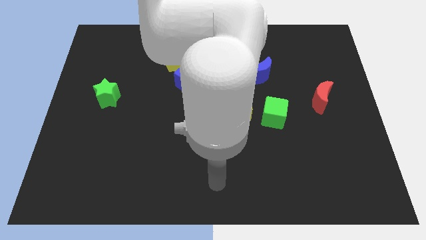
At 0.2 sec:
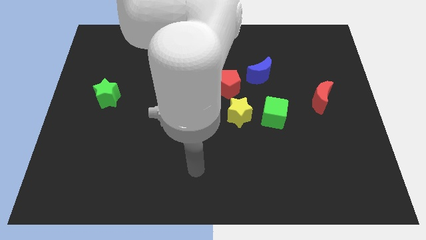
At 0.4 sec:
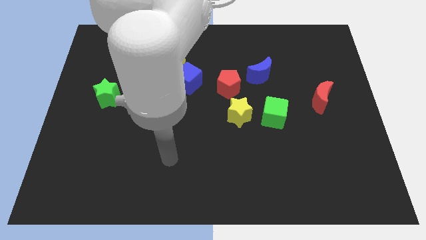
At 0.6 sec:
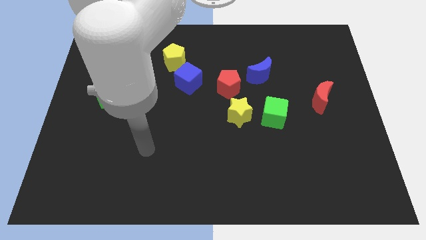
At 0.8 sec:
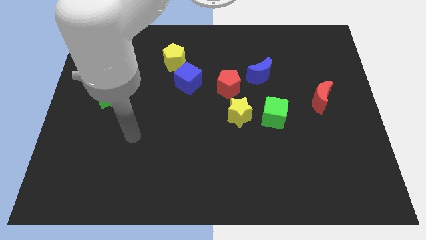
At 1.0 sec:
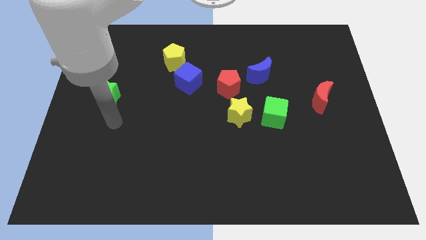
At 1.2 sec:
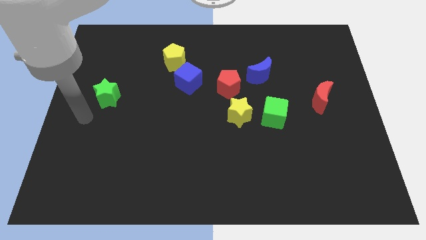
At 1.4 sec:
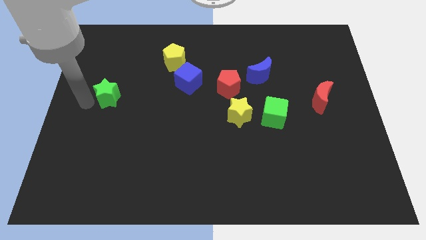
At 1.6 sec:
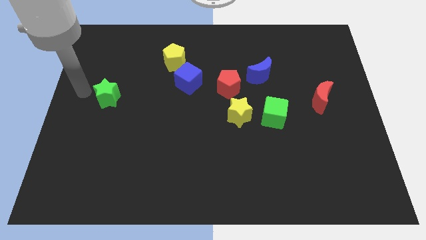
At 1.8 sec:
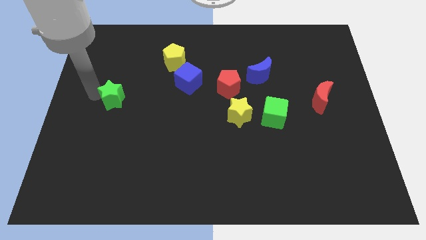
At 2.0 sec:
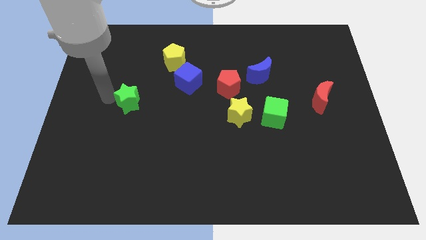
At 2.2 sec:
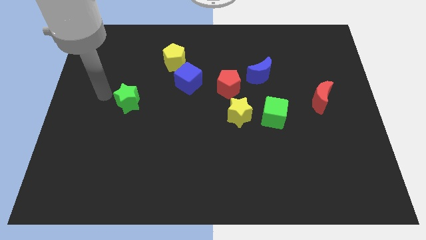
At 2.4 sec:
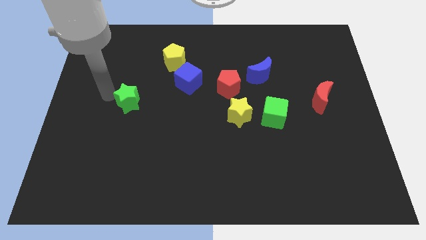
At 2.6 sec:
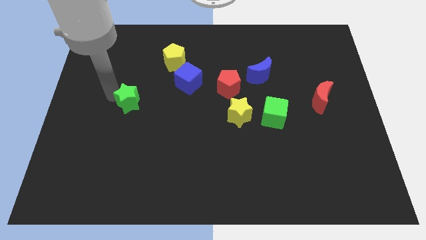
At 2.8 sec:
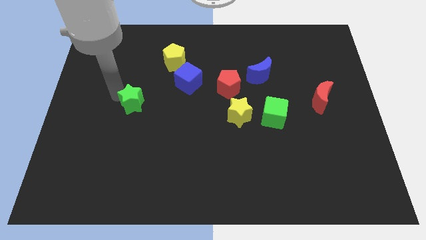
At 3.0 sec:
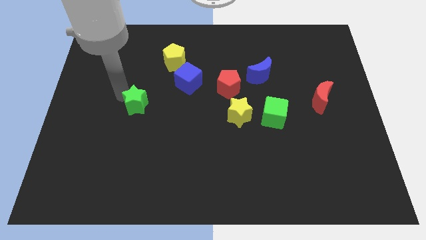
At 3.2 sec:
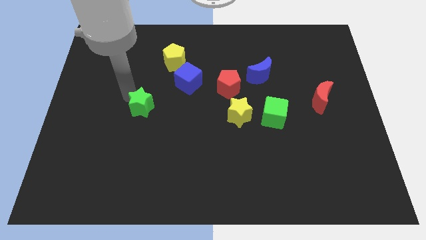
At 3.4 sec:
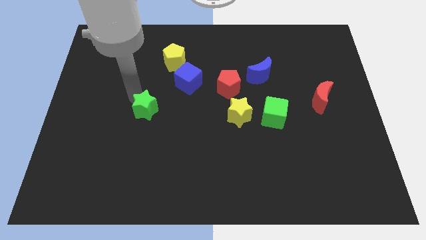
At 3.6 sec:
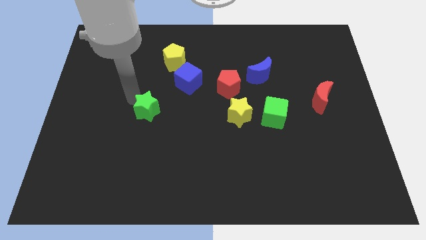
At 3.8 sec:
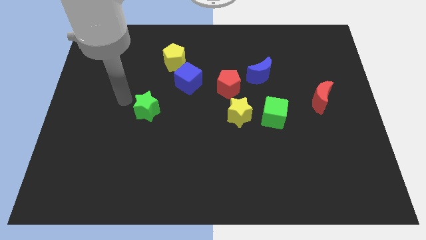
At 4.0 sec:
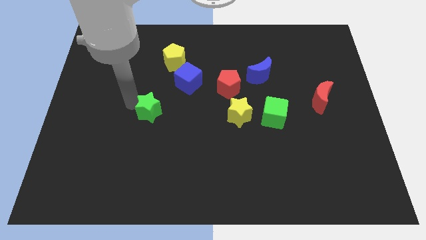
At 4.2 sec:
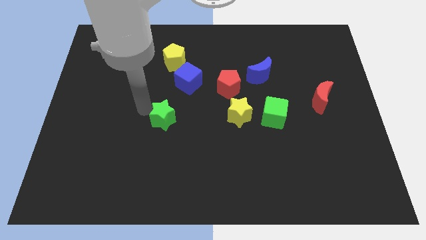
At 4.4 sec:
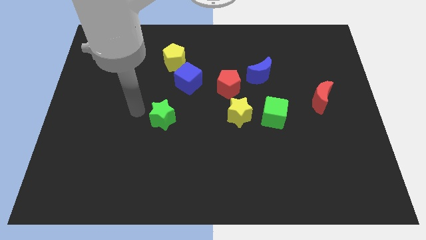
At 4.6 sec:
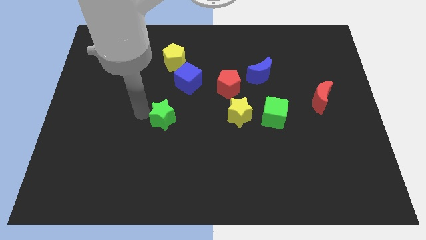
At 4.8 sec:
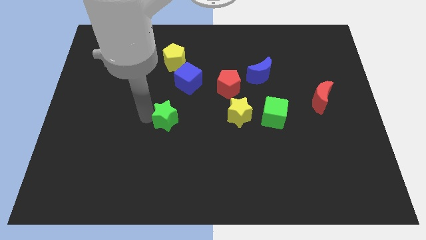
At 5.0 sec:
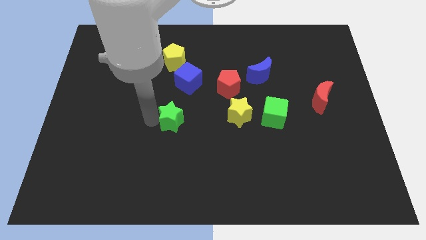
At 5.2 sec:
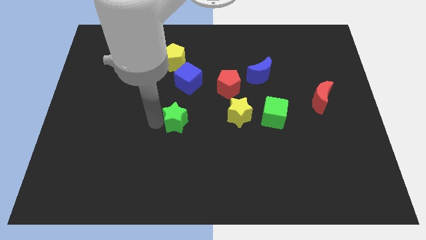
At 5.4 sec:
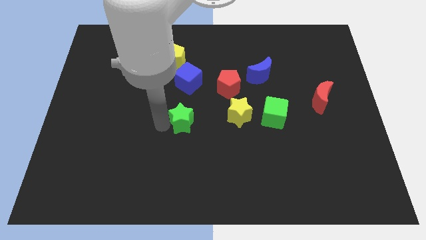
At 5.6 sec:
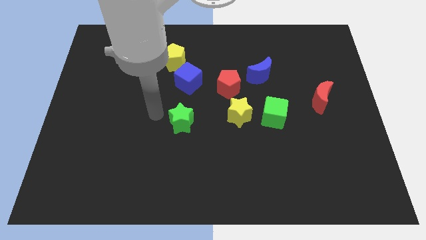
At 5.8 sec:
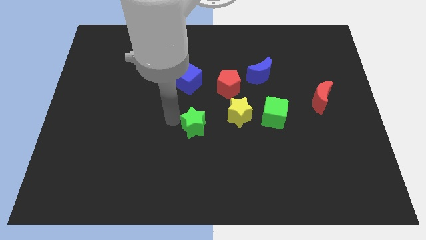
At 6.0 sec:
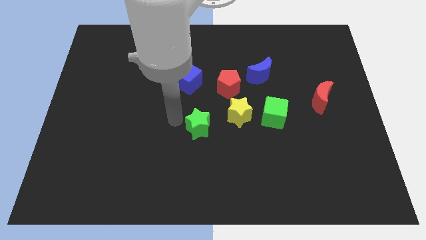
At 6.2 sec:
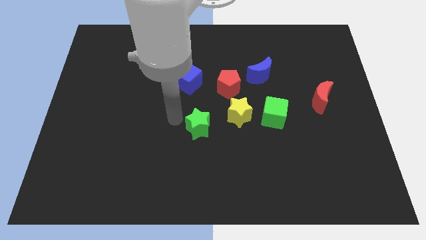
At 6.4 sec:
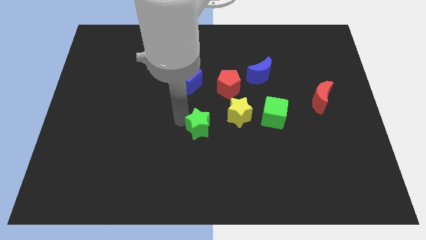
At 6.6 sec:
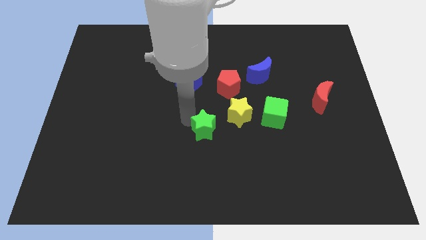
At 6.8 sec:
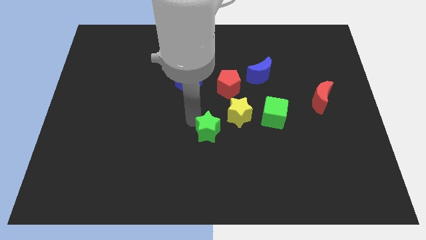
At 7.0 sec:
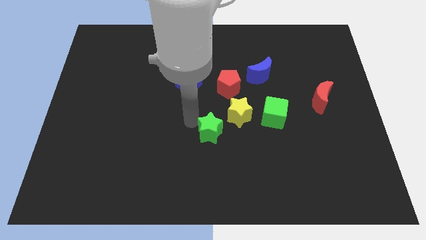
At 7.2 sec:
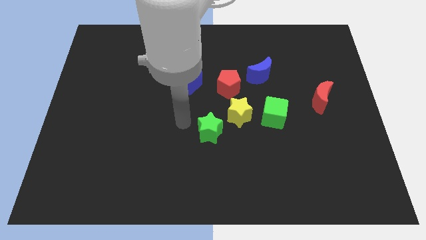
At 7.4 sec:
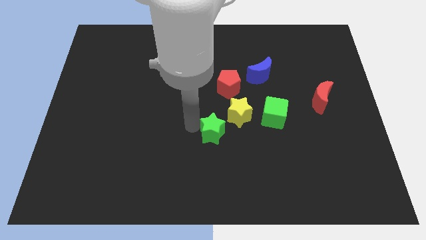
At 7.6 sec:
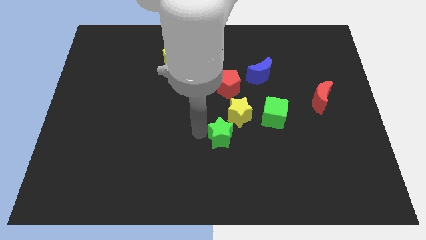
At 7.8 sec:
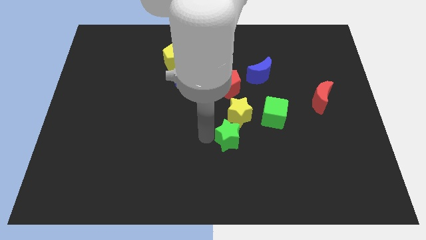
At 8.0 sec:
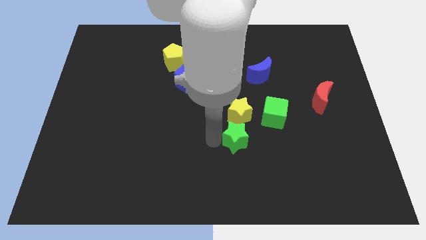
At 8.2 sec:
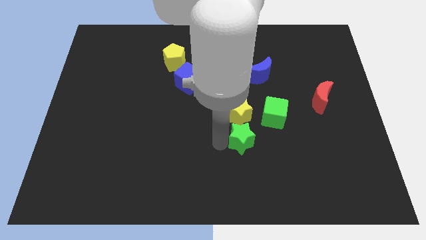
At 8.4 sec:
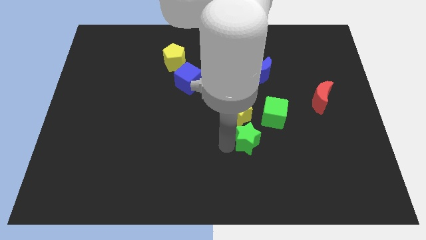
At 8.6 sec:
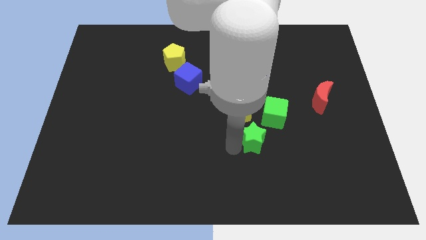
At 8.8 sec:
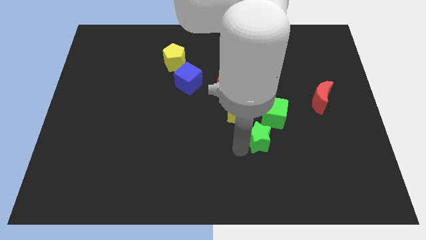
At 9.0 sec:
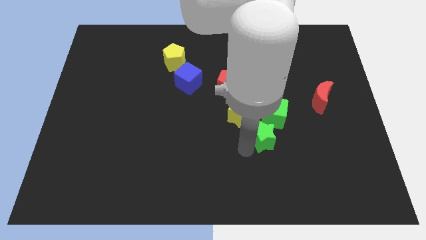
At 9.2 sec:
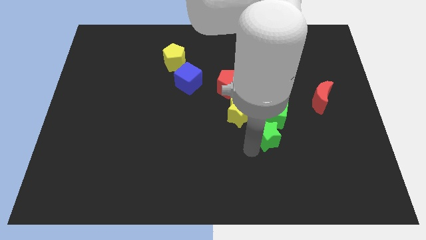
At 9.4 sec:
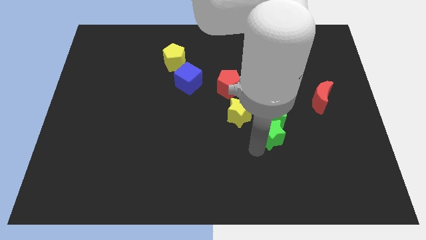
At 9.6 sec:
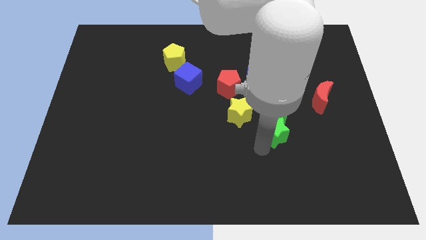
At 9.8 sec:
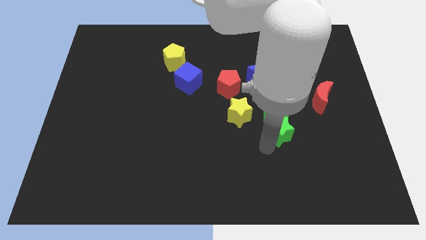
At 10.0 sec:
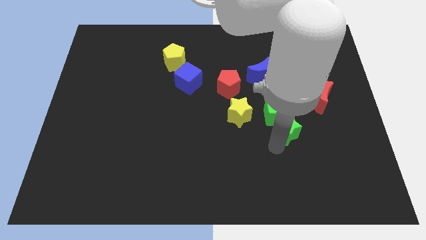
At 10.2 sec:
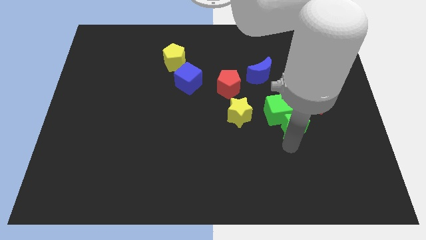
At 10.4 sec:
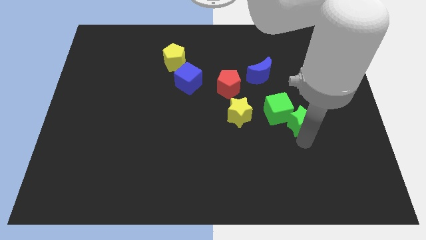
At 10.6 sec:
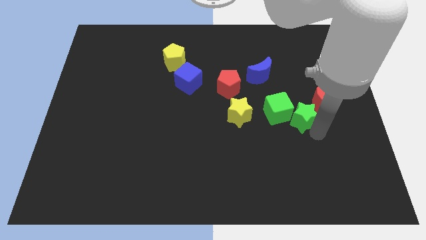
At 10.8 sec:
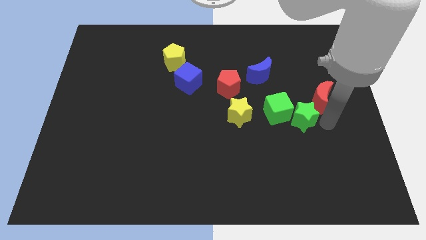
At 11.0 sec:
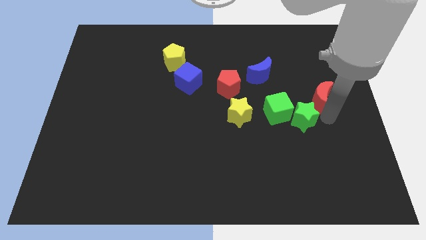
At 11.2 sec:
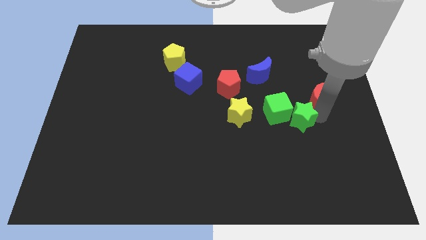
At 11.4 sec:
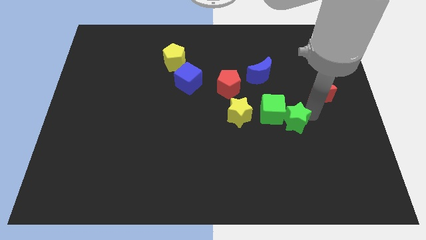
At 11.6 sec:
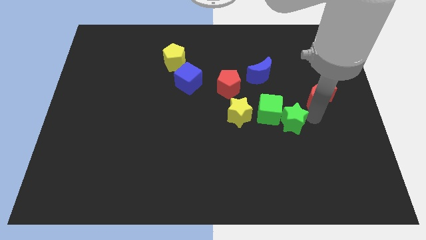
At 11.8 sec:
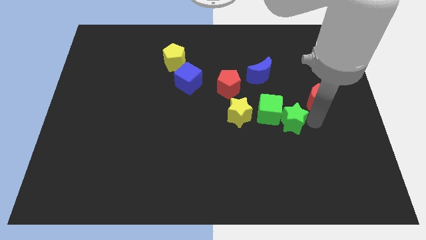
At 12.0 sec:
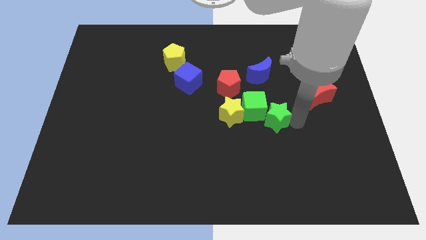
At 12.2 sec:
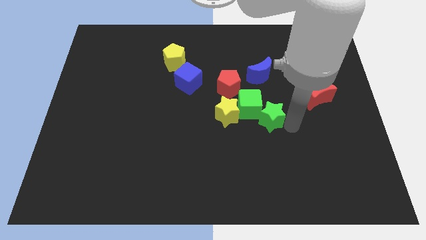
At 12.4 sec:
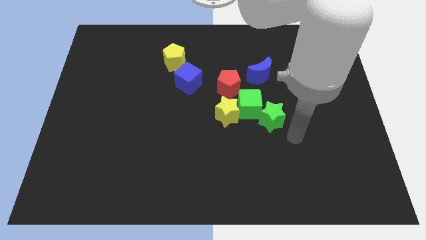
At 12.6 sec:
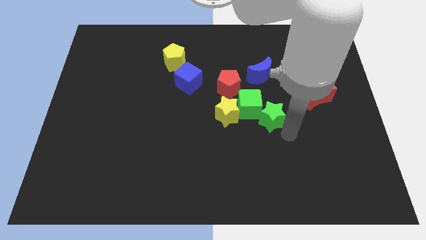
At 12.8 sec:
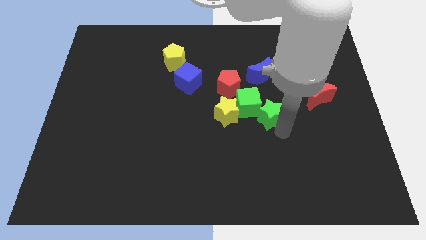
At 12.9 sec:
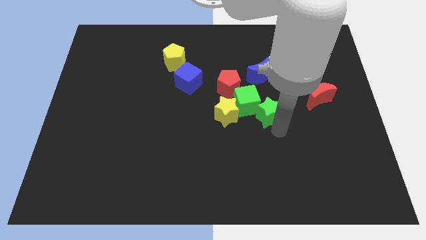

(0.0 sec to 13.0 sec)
push the green star to the bottom right side of the red pentagon

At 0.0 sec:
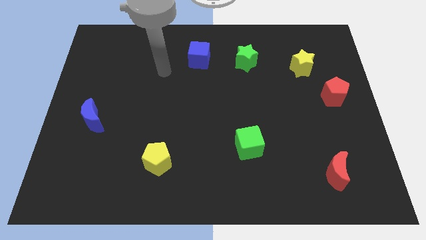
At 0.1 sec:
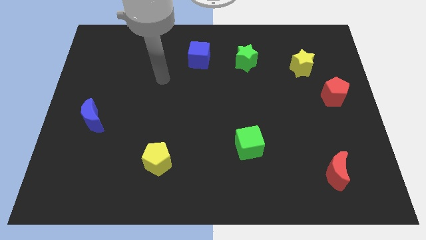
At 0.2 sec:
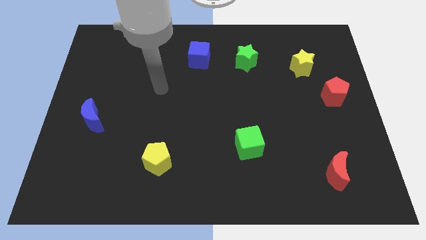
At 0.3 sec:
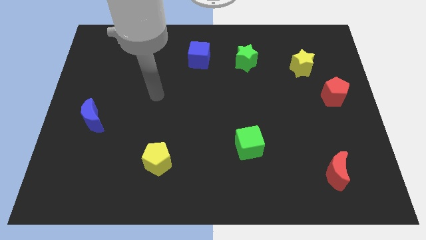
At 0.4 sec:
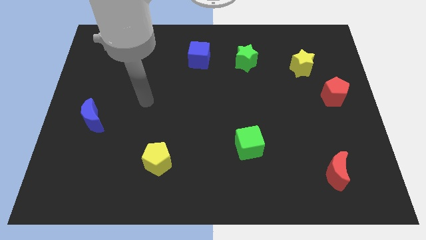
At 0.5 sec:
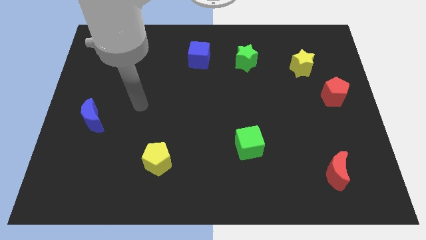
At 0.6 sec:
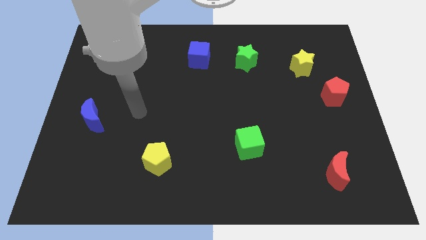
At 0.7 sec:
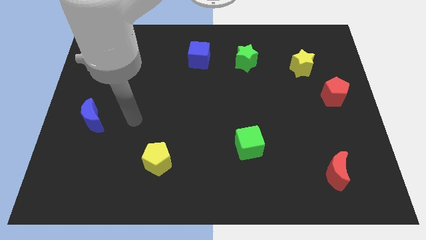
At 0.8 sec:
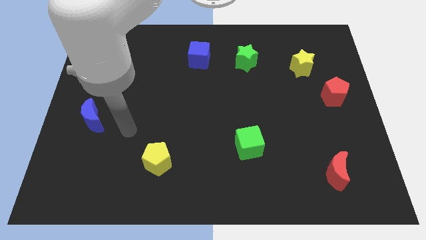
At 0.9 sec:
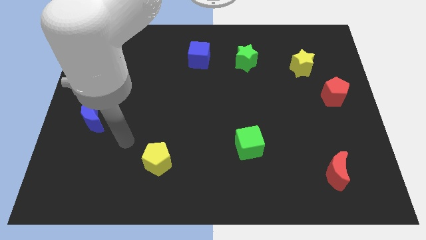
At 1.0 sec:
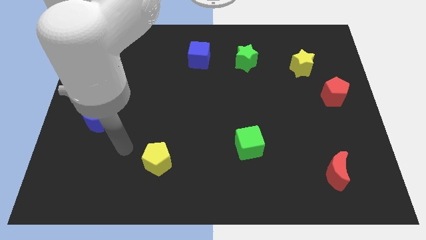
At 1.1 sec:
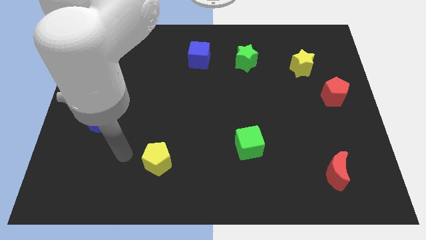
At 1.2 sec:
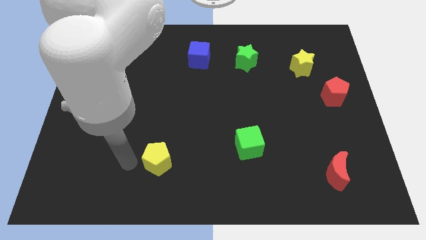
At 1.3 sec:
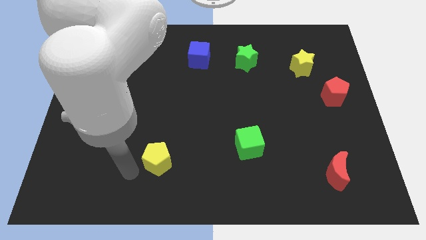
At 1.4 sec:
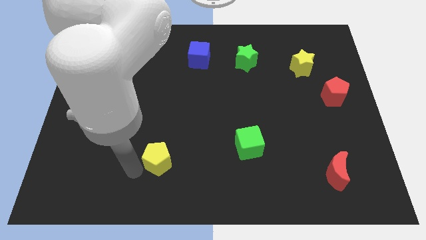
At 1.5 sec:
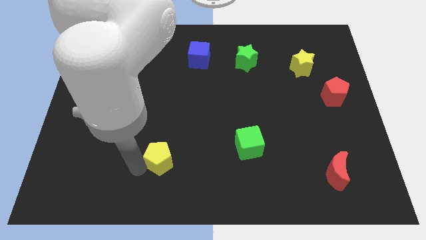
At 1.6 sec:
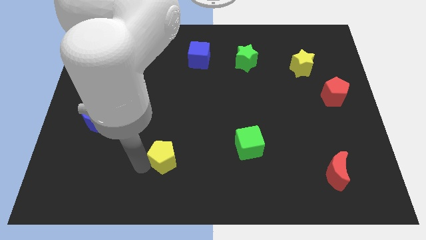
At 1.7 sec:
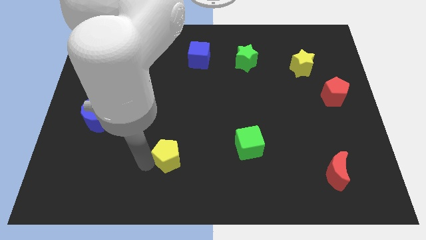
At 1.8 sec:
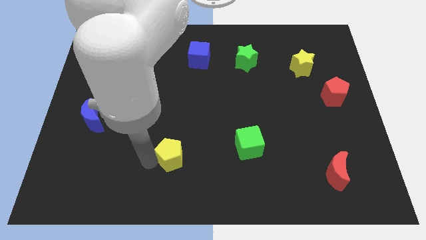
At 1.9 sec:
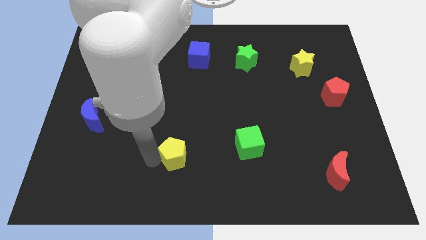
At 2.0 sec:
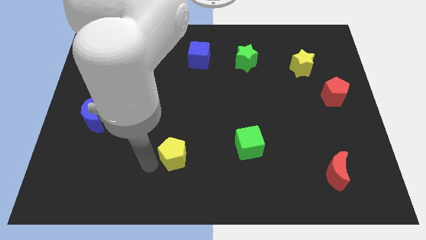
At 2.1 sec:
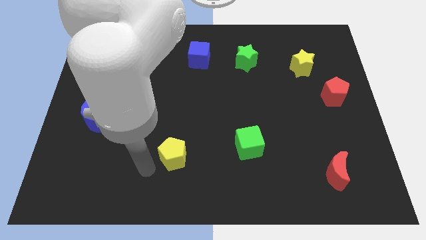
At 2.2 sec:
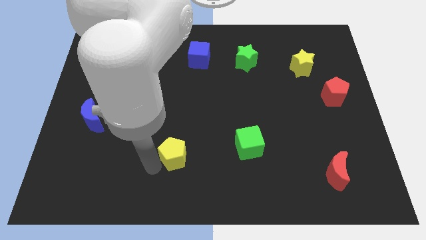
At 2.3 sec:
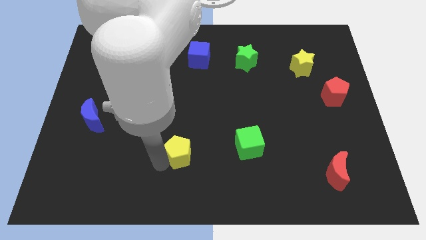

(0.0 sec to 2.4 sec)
put the yellow pentagon to the left side of the green cube
